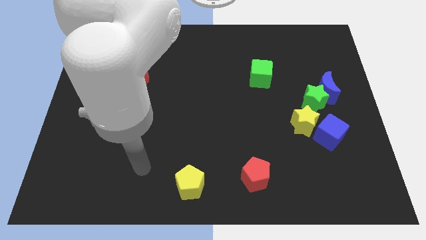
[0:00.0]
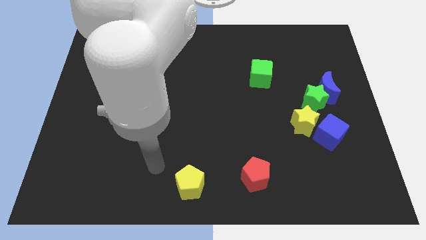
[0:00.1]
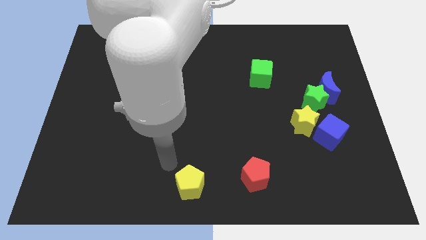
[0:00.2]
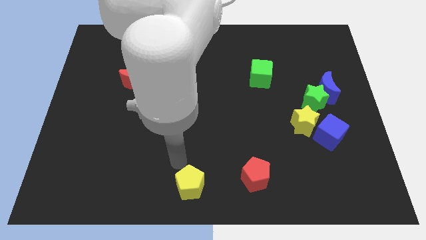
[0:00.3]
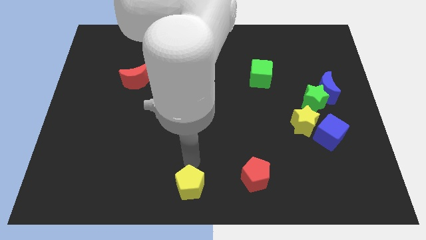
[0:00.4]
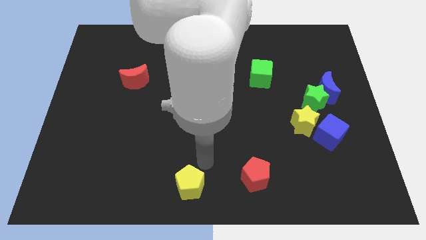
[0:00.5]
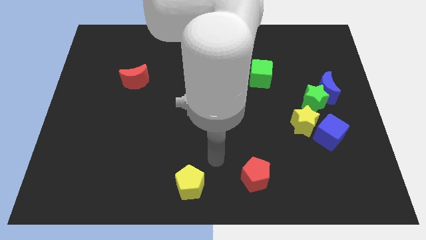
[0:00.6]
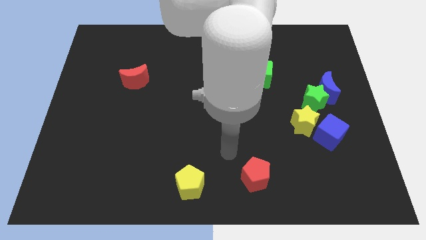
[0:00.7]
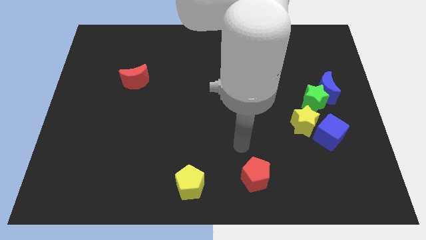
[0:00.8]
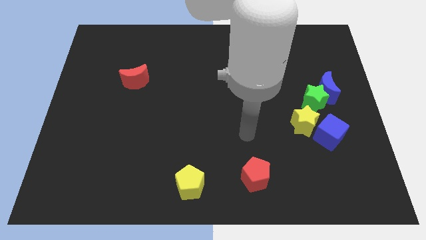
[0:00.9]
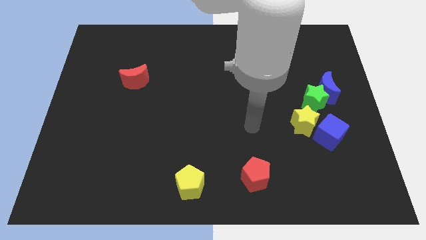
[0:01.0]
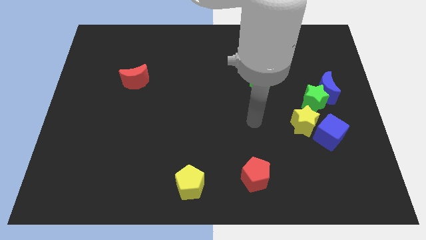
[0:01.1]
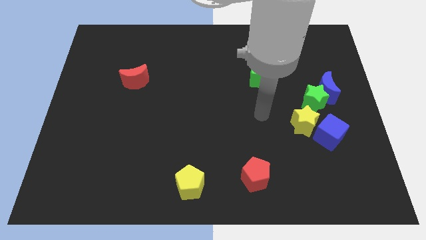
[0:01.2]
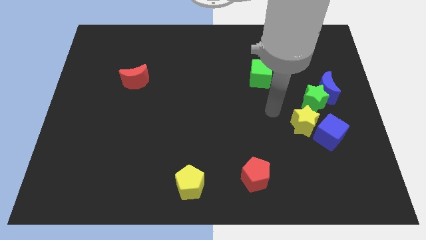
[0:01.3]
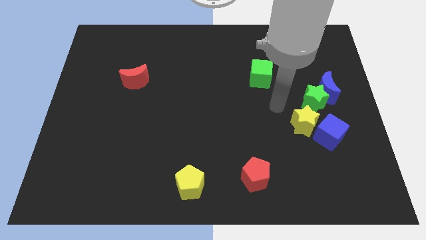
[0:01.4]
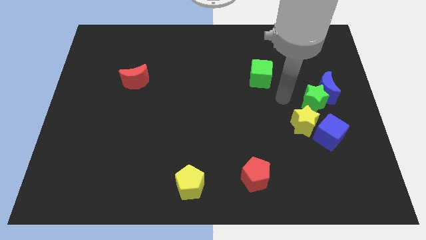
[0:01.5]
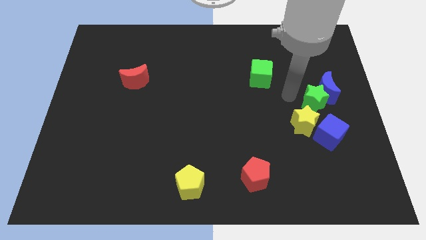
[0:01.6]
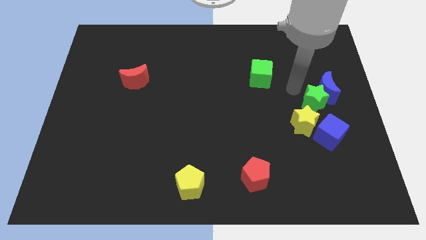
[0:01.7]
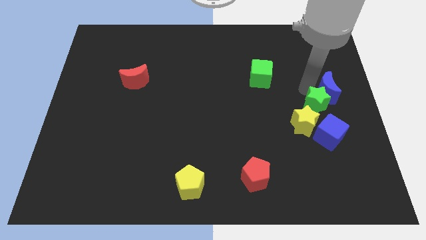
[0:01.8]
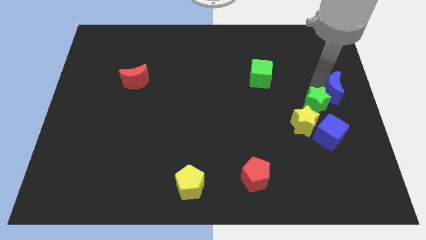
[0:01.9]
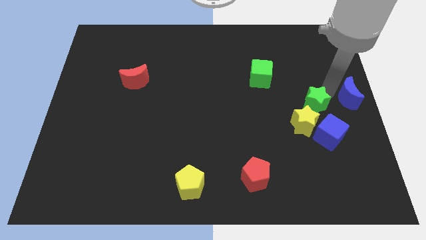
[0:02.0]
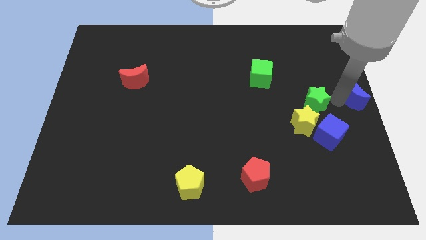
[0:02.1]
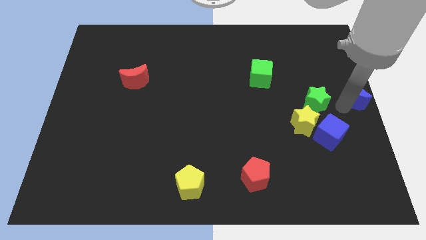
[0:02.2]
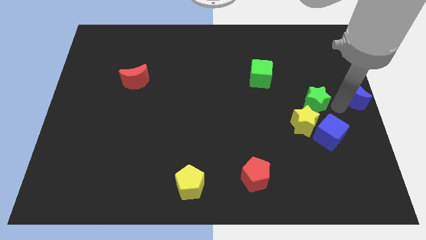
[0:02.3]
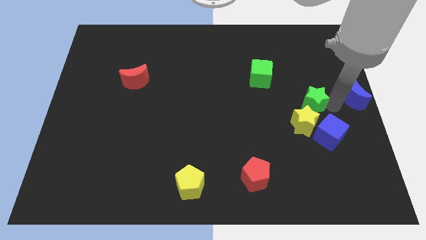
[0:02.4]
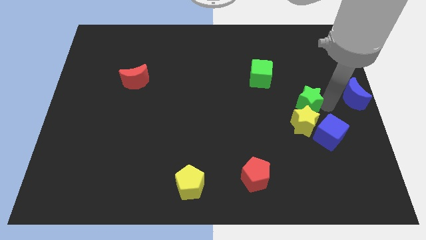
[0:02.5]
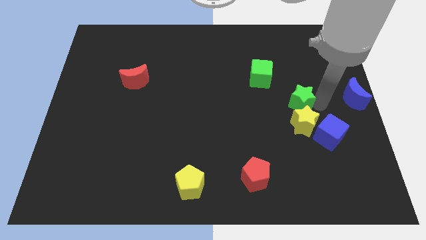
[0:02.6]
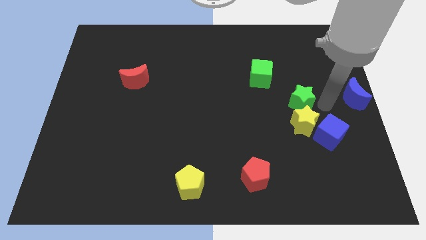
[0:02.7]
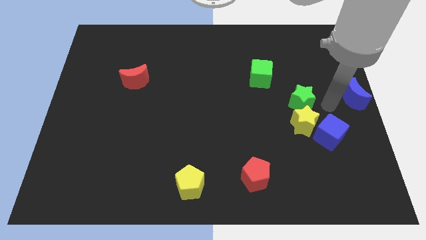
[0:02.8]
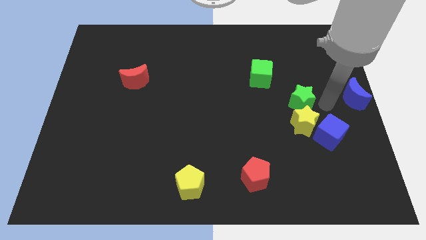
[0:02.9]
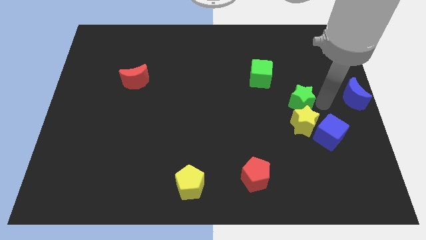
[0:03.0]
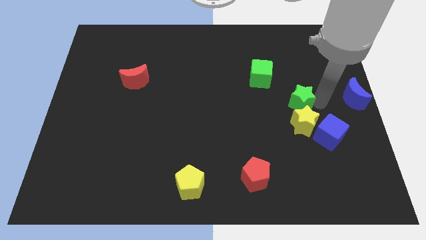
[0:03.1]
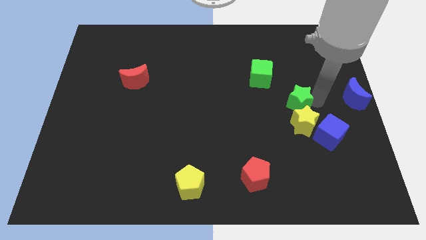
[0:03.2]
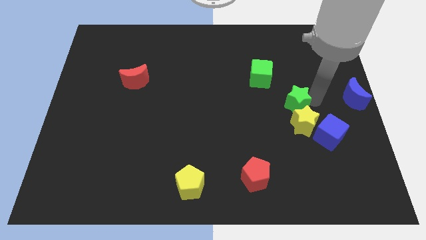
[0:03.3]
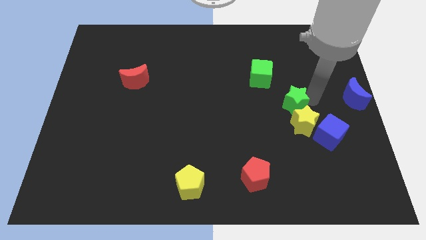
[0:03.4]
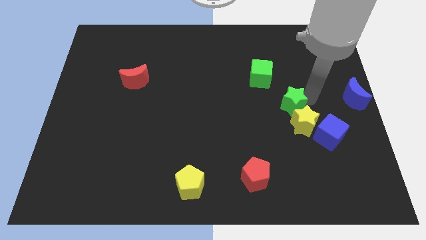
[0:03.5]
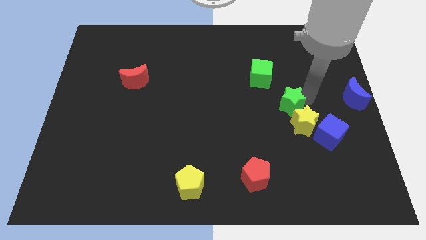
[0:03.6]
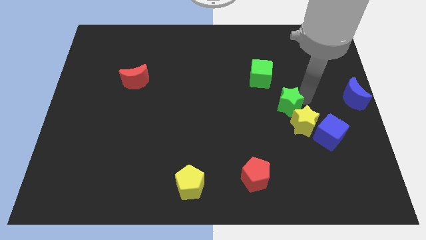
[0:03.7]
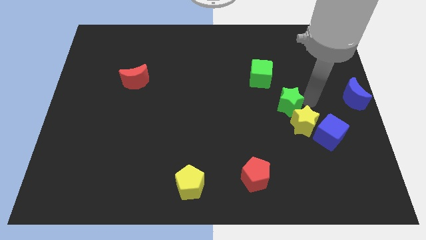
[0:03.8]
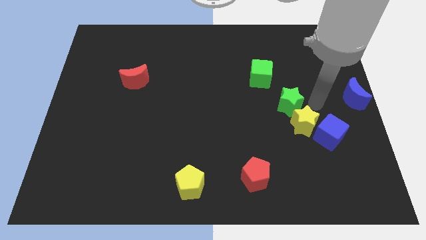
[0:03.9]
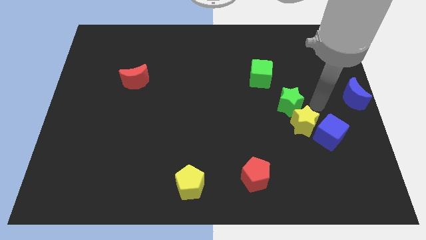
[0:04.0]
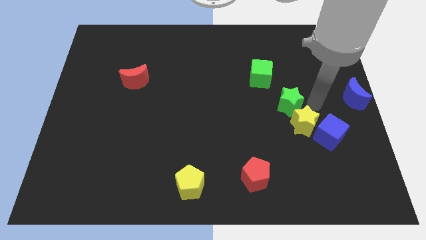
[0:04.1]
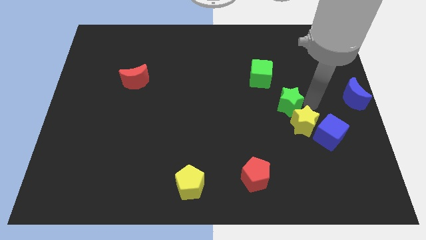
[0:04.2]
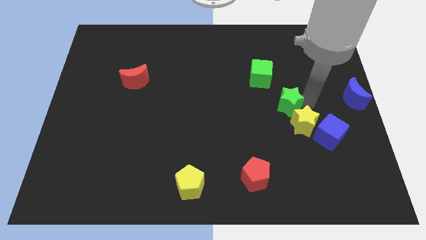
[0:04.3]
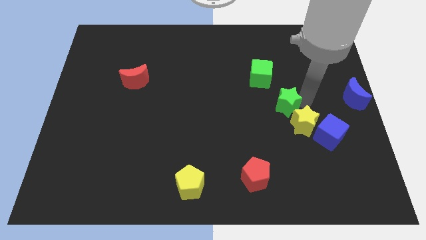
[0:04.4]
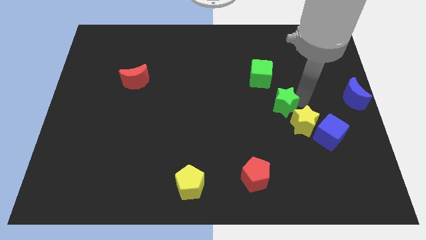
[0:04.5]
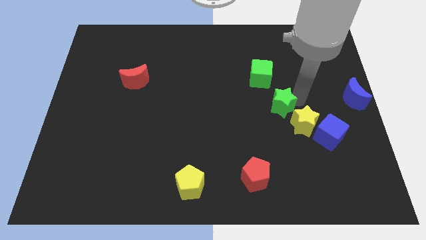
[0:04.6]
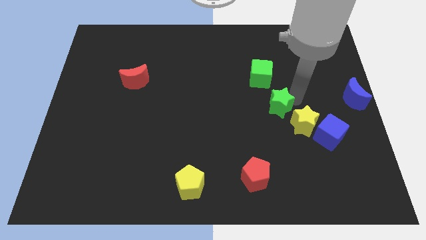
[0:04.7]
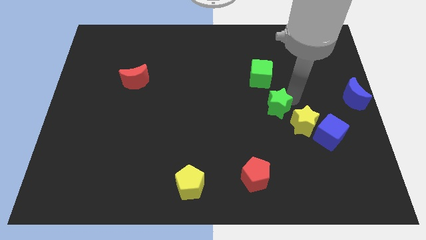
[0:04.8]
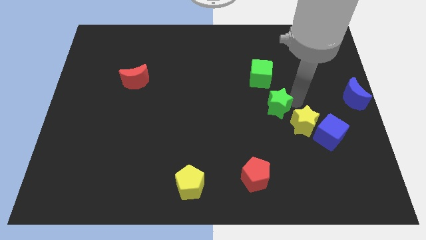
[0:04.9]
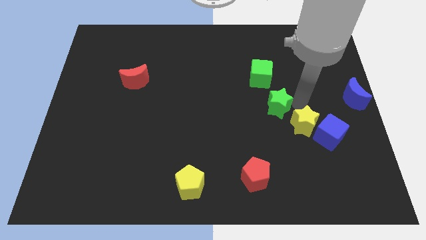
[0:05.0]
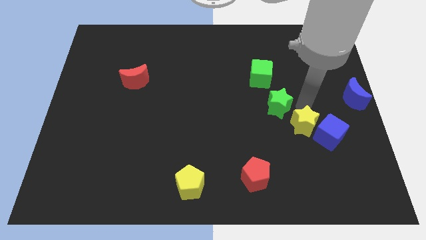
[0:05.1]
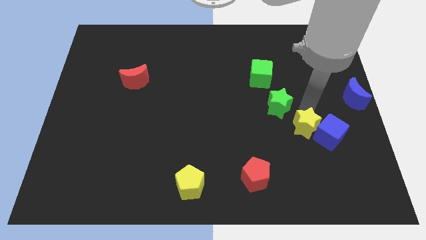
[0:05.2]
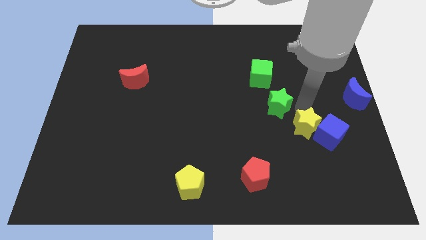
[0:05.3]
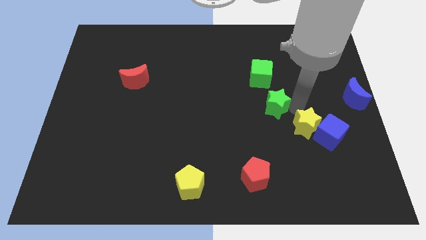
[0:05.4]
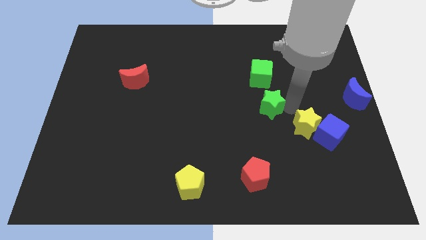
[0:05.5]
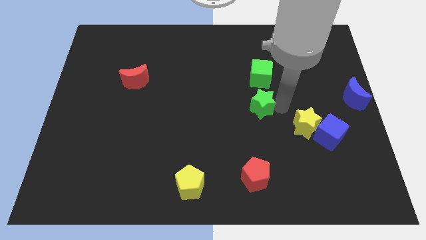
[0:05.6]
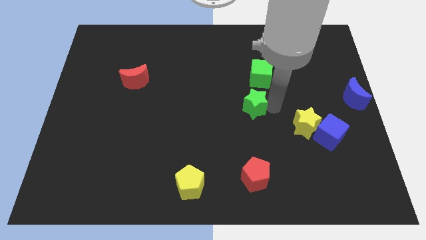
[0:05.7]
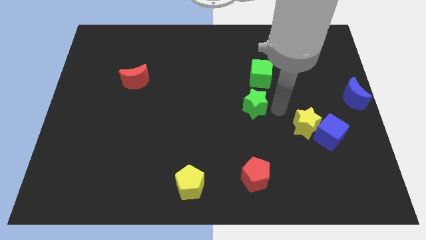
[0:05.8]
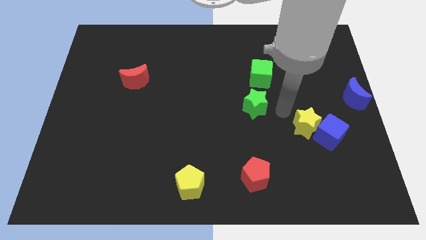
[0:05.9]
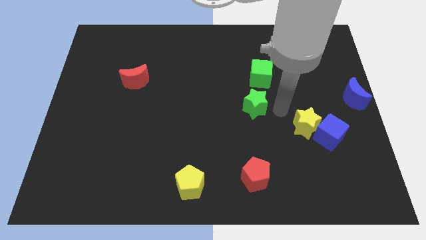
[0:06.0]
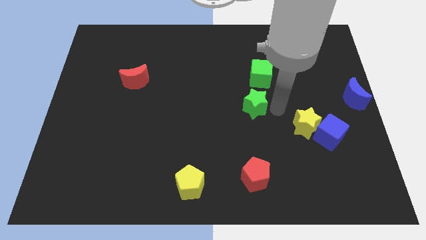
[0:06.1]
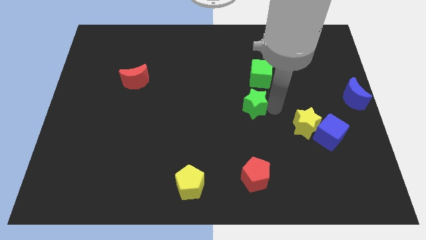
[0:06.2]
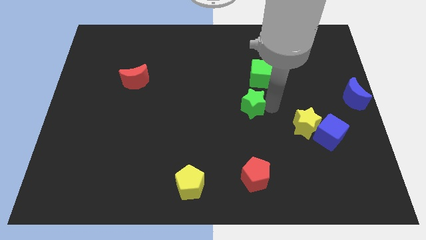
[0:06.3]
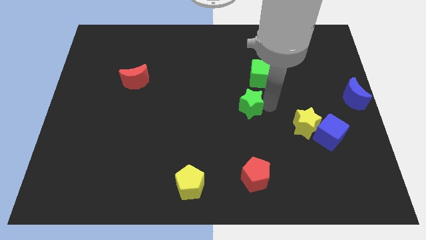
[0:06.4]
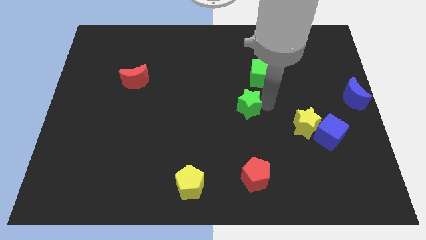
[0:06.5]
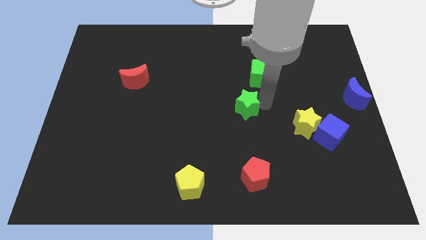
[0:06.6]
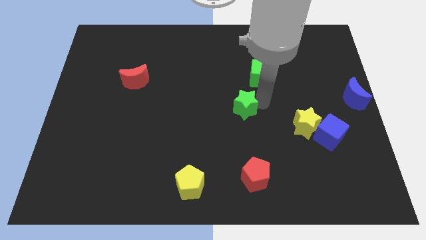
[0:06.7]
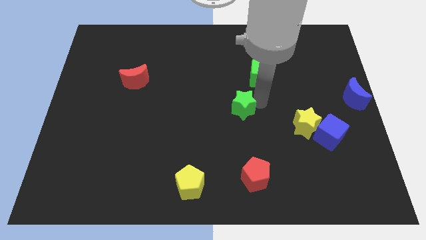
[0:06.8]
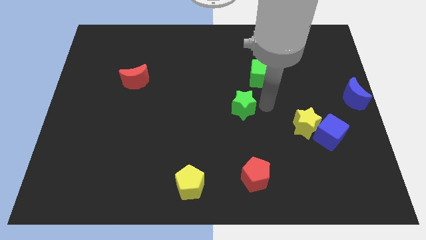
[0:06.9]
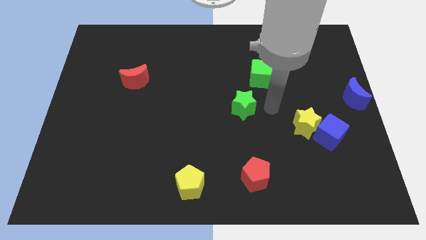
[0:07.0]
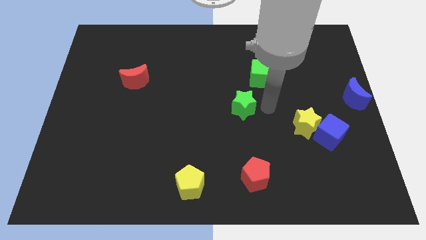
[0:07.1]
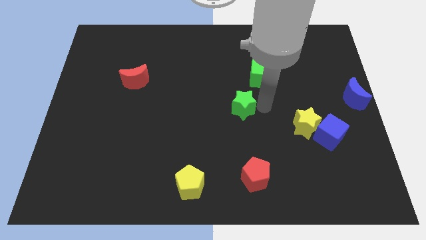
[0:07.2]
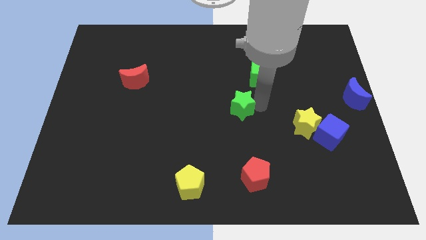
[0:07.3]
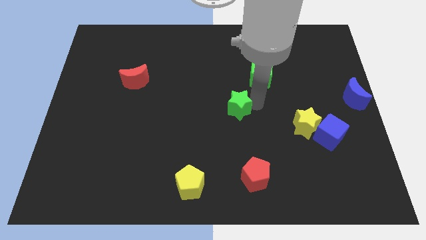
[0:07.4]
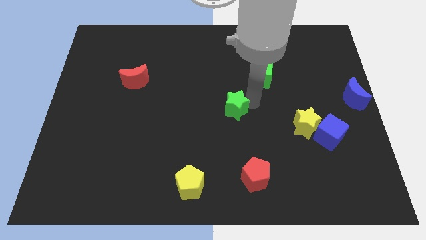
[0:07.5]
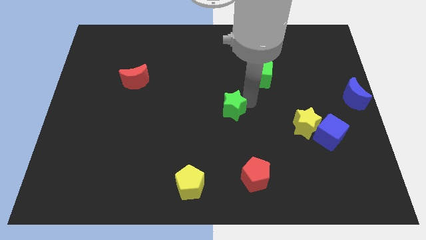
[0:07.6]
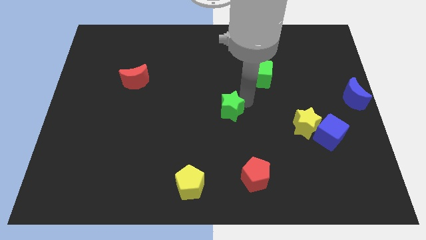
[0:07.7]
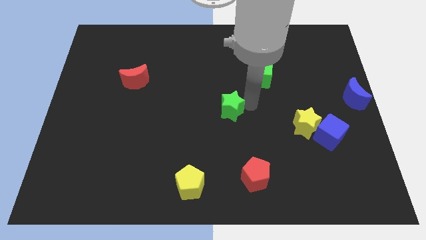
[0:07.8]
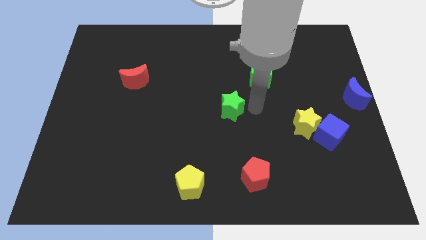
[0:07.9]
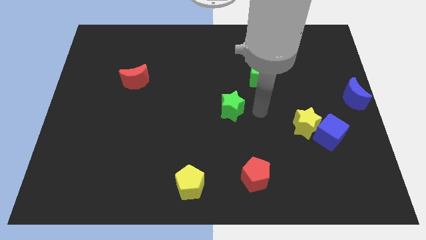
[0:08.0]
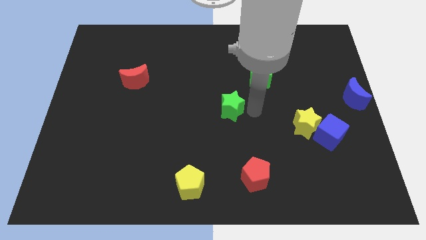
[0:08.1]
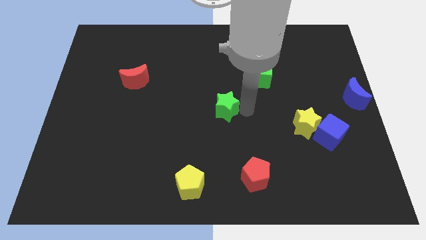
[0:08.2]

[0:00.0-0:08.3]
move the green star left
